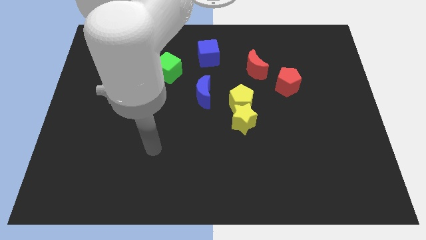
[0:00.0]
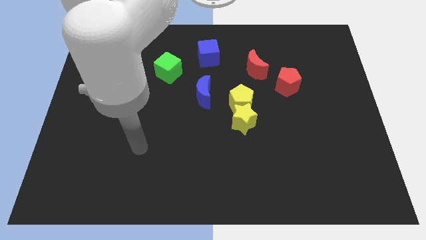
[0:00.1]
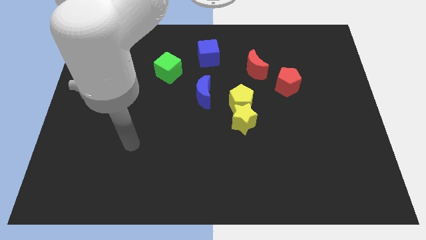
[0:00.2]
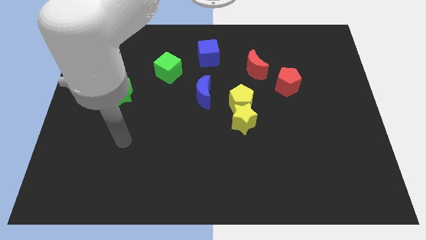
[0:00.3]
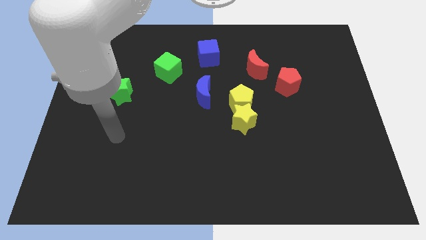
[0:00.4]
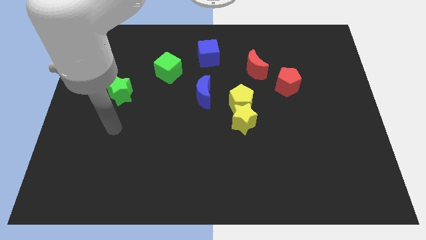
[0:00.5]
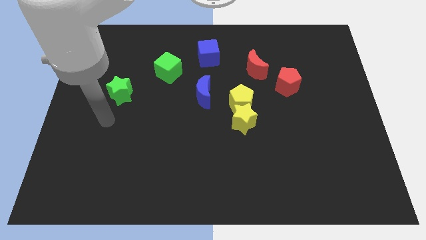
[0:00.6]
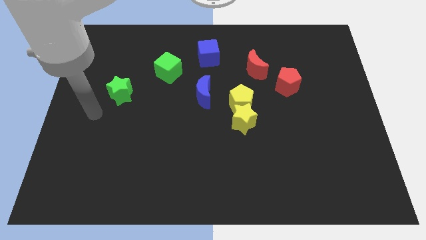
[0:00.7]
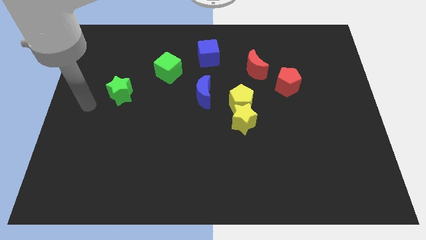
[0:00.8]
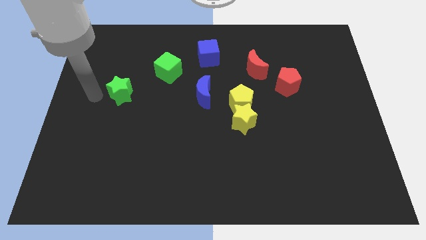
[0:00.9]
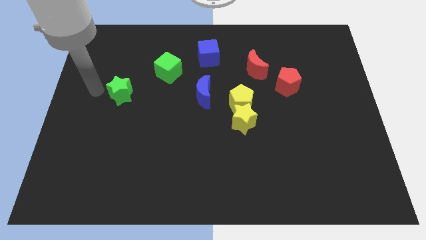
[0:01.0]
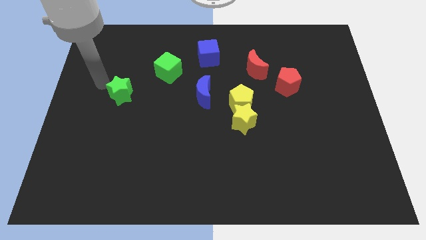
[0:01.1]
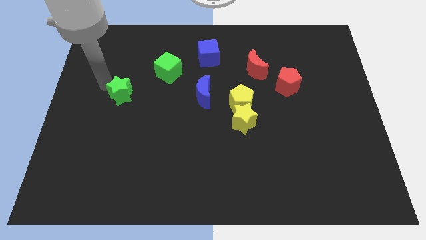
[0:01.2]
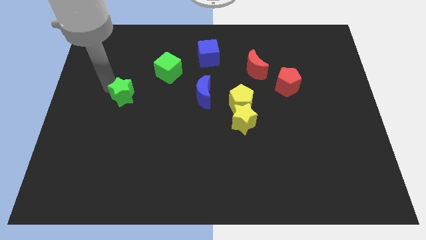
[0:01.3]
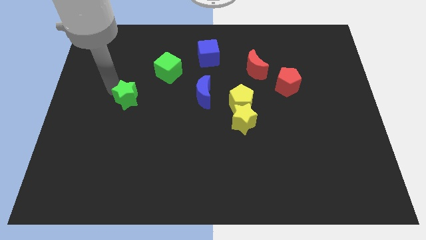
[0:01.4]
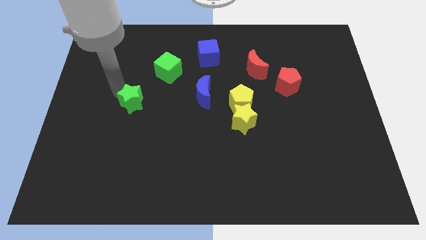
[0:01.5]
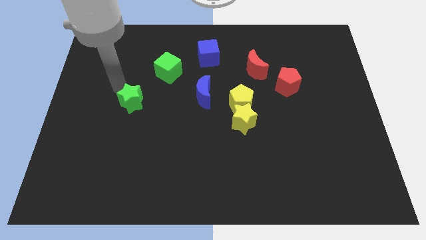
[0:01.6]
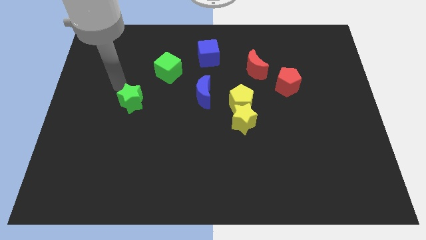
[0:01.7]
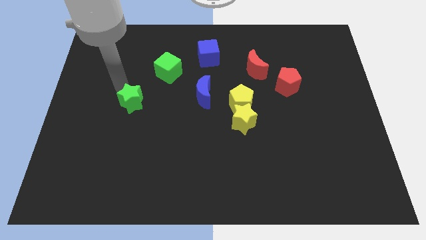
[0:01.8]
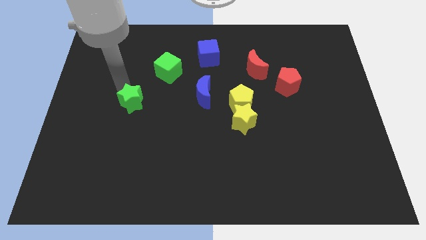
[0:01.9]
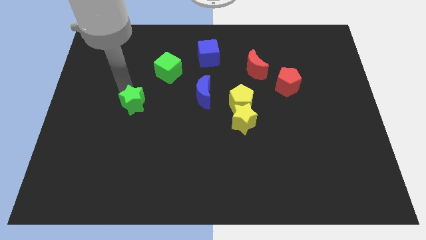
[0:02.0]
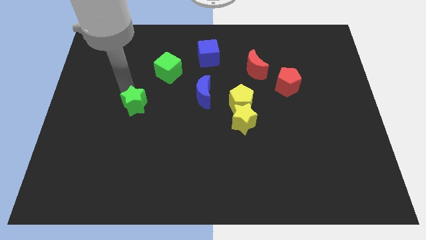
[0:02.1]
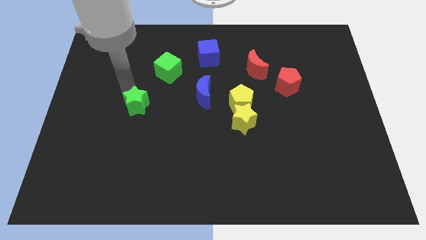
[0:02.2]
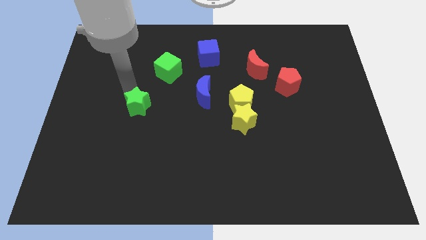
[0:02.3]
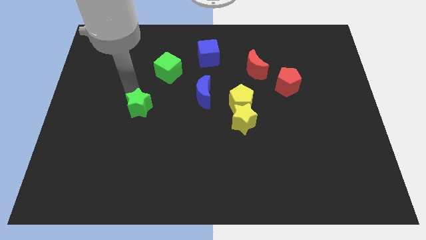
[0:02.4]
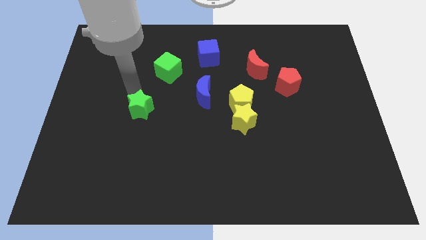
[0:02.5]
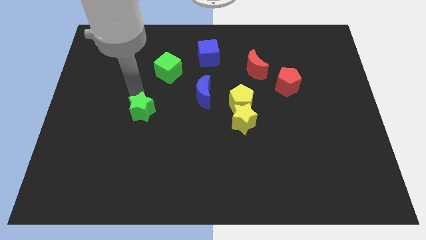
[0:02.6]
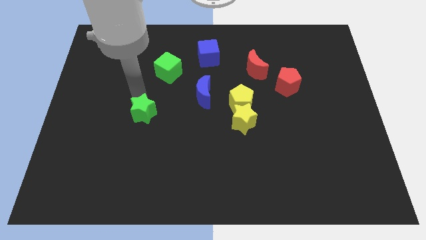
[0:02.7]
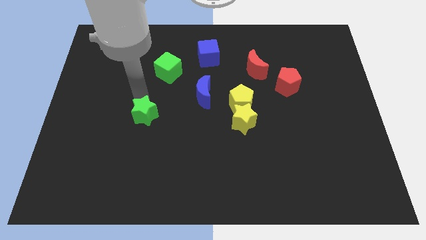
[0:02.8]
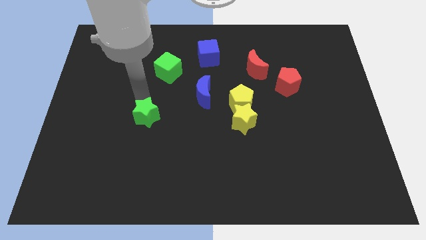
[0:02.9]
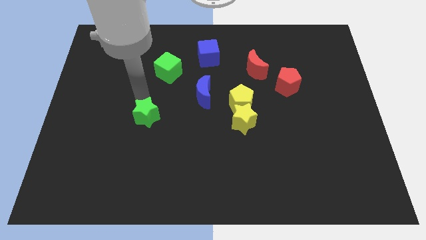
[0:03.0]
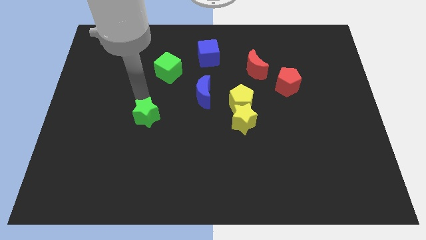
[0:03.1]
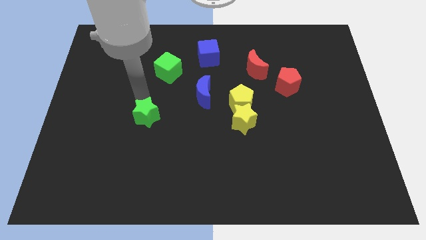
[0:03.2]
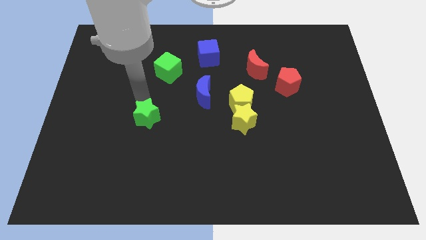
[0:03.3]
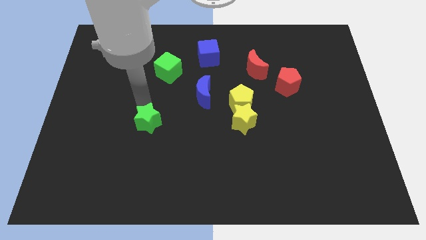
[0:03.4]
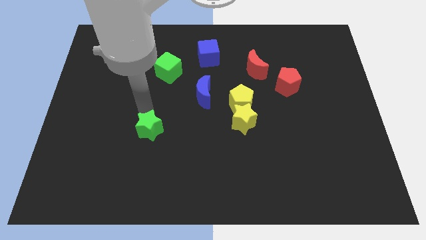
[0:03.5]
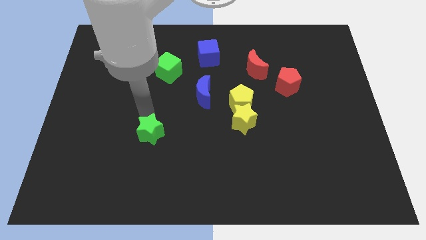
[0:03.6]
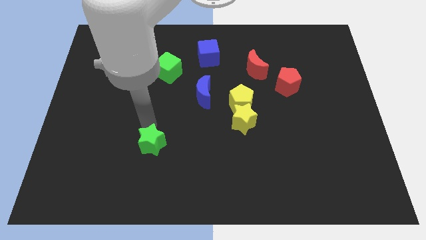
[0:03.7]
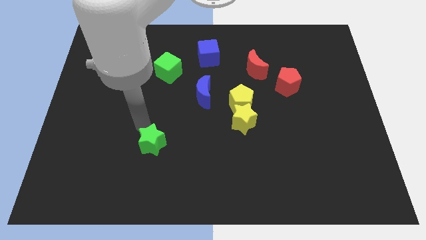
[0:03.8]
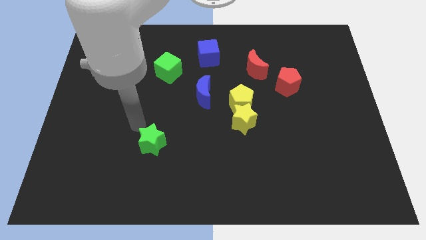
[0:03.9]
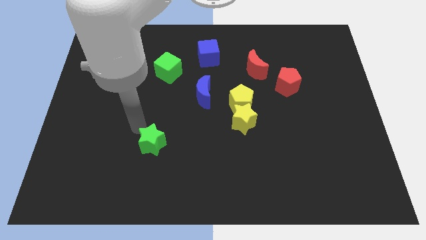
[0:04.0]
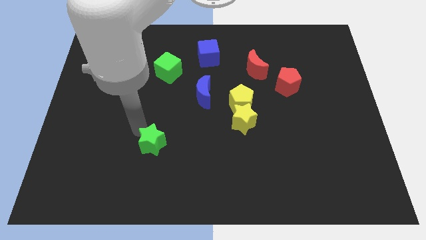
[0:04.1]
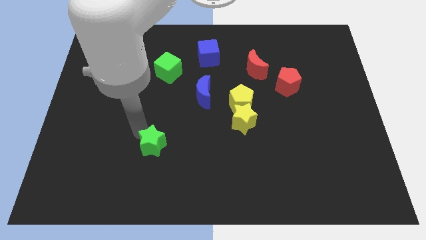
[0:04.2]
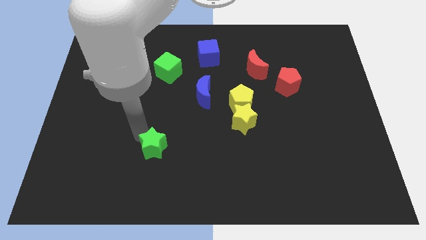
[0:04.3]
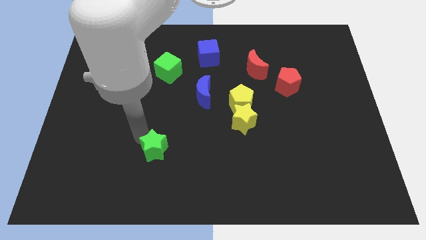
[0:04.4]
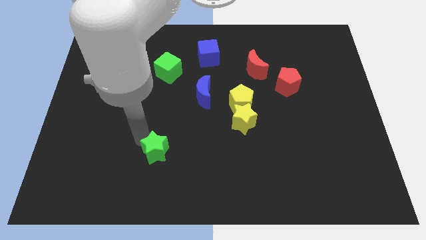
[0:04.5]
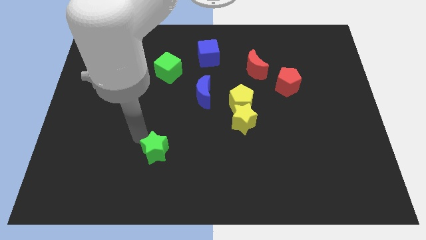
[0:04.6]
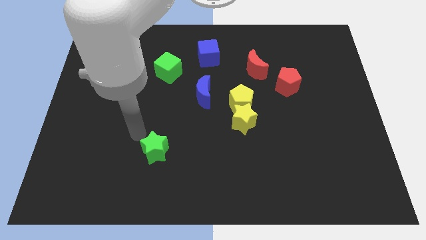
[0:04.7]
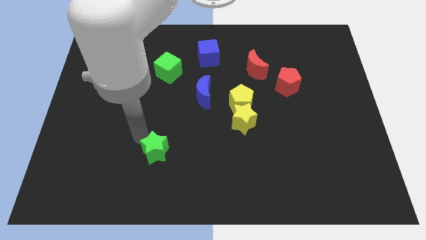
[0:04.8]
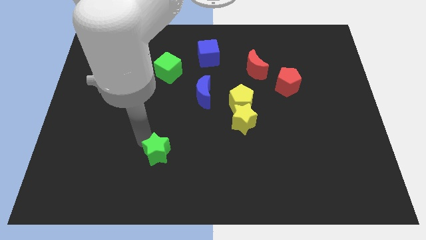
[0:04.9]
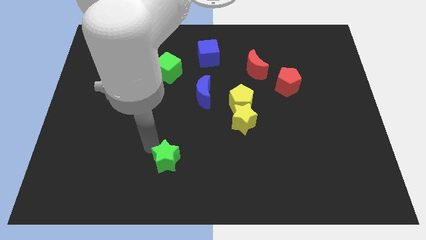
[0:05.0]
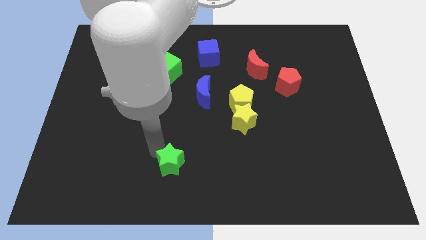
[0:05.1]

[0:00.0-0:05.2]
put the green star to the bottom side

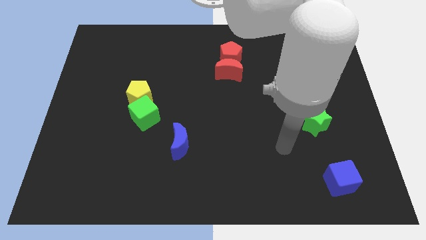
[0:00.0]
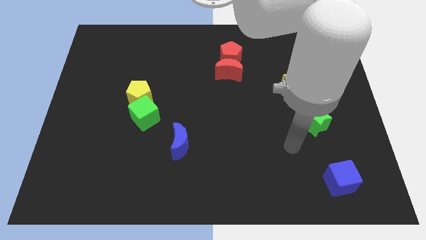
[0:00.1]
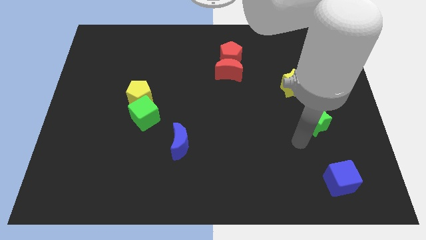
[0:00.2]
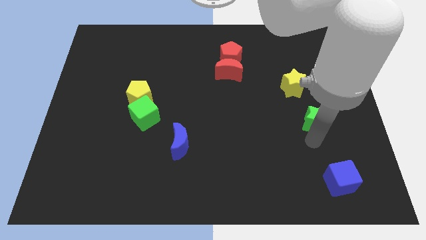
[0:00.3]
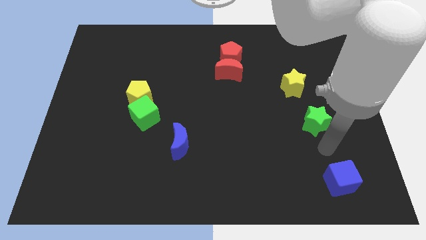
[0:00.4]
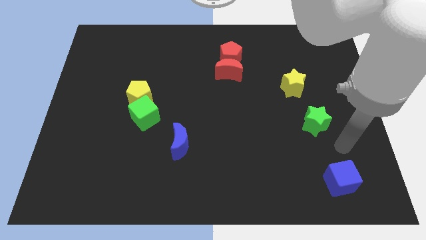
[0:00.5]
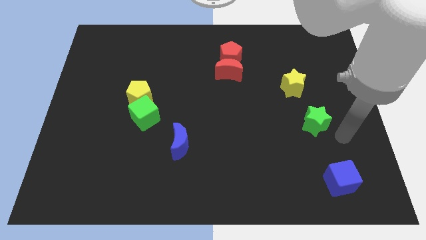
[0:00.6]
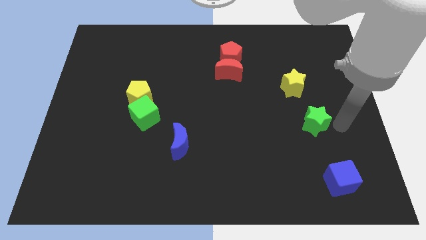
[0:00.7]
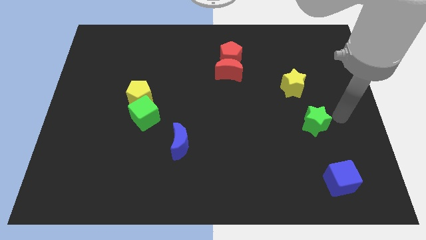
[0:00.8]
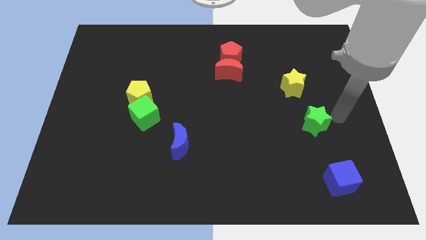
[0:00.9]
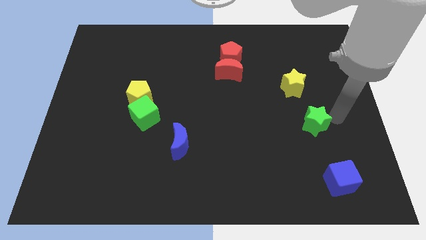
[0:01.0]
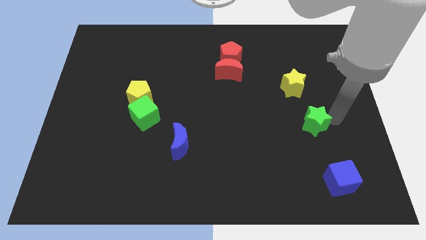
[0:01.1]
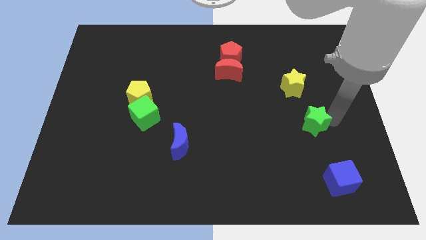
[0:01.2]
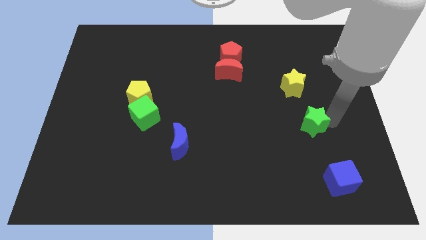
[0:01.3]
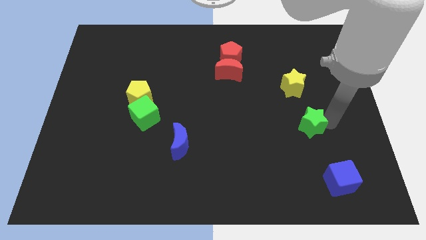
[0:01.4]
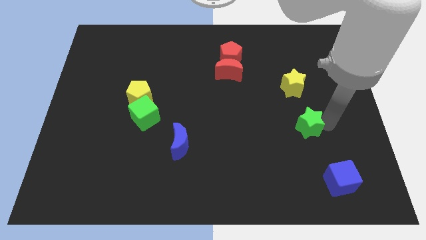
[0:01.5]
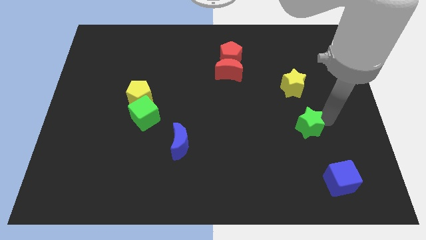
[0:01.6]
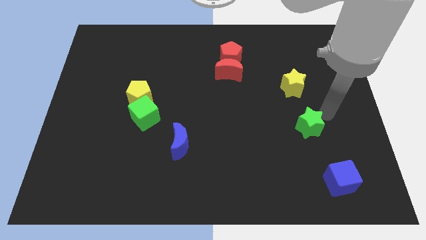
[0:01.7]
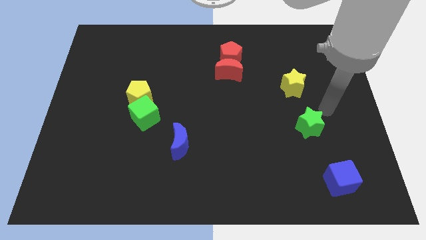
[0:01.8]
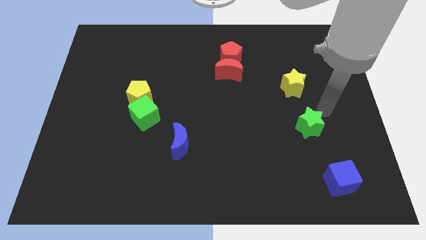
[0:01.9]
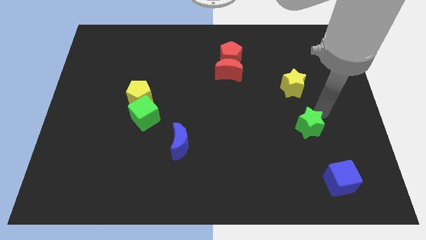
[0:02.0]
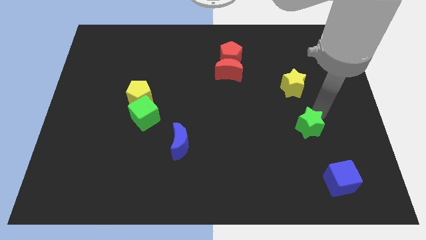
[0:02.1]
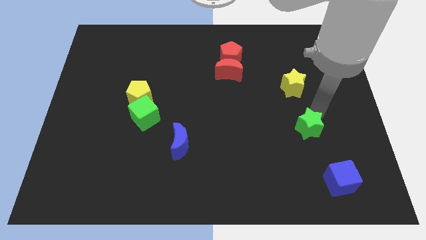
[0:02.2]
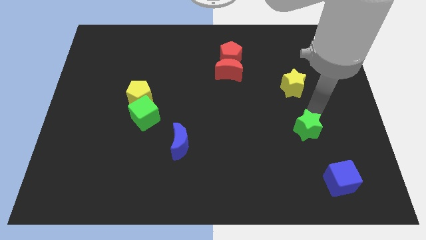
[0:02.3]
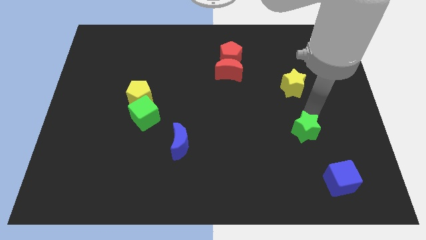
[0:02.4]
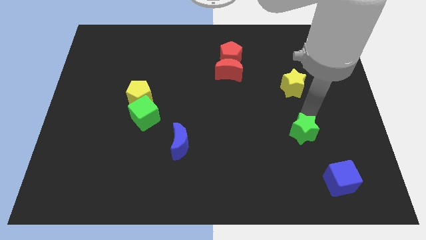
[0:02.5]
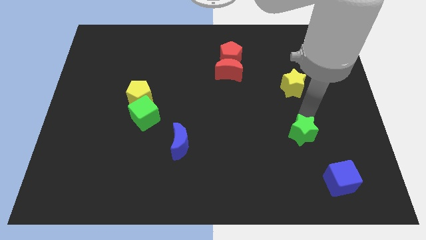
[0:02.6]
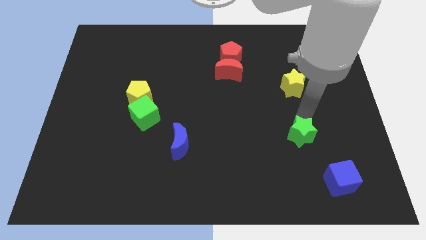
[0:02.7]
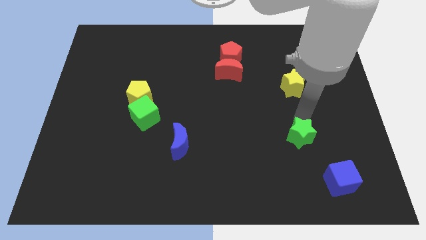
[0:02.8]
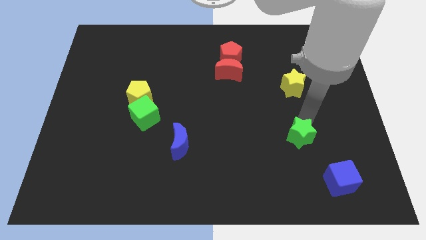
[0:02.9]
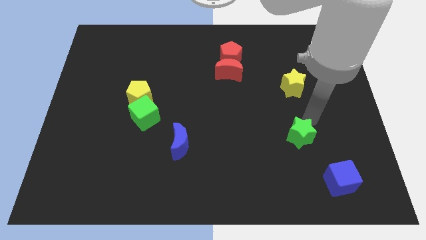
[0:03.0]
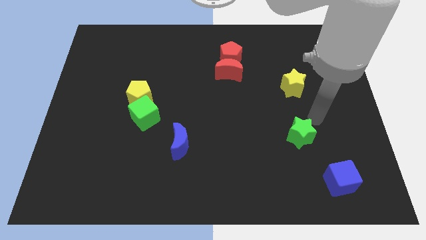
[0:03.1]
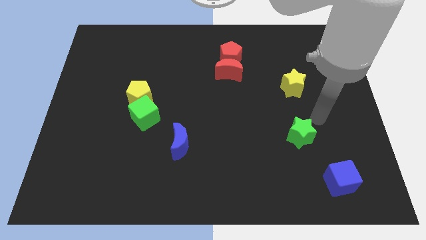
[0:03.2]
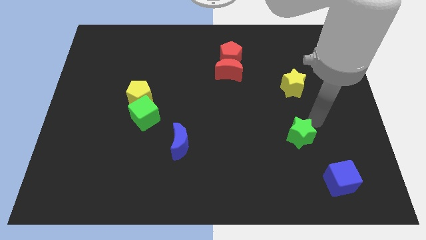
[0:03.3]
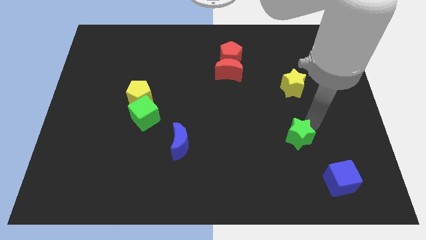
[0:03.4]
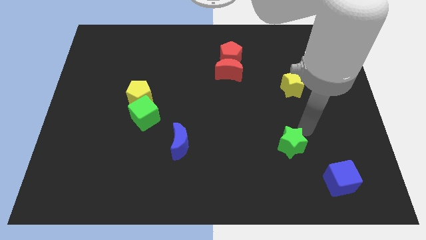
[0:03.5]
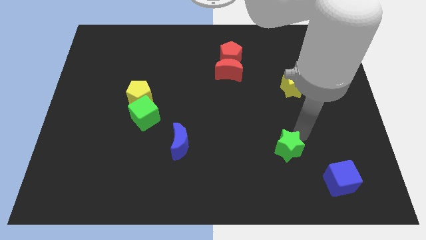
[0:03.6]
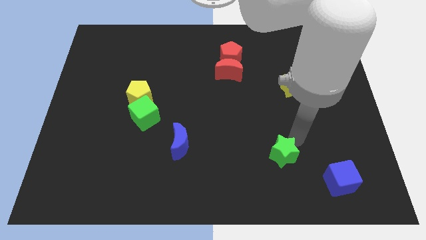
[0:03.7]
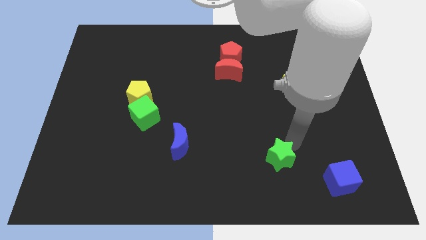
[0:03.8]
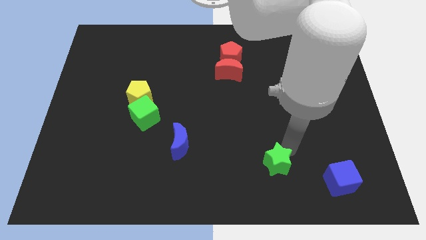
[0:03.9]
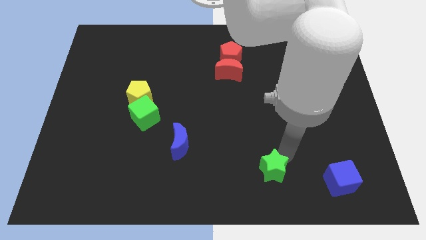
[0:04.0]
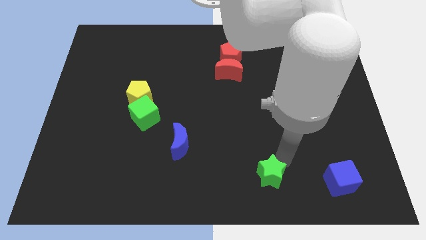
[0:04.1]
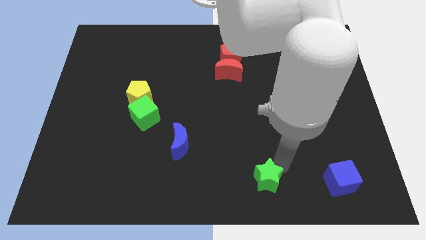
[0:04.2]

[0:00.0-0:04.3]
push the green star to the bottom
